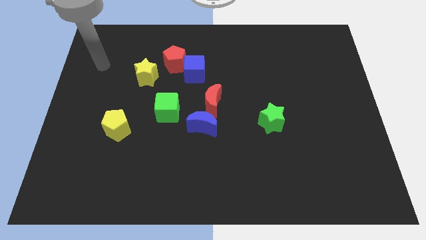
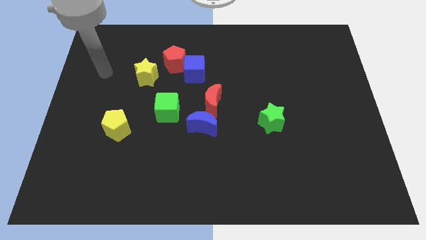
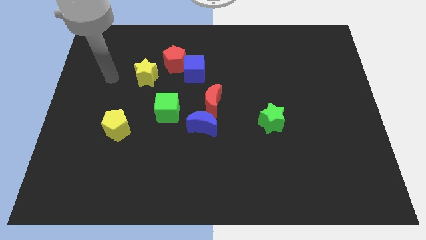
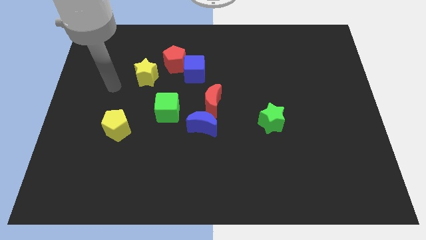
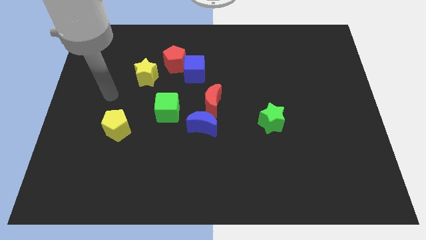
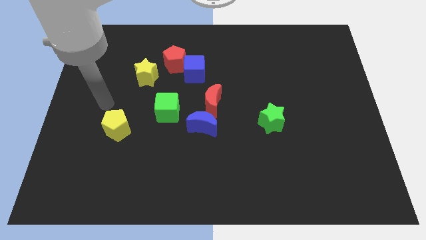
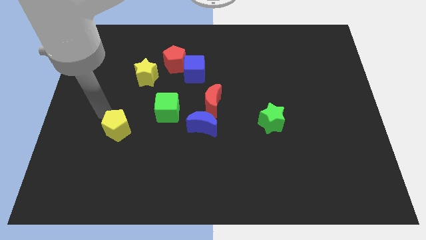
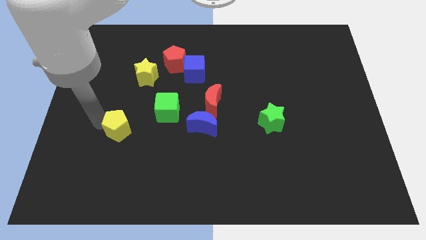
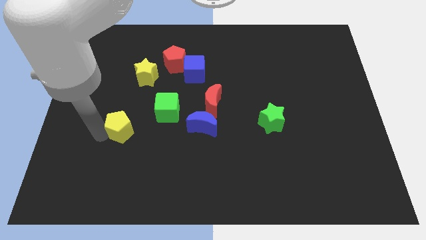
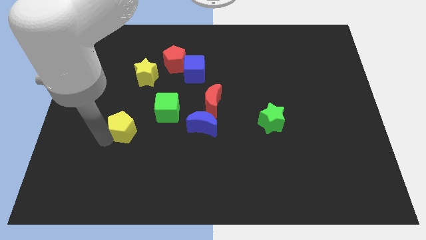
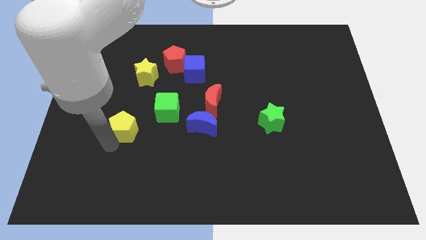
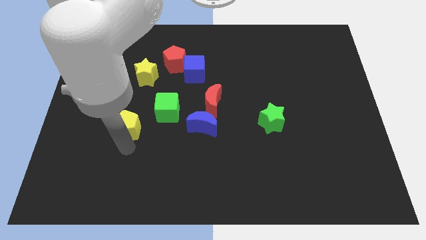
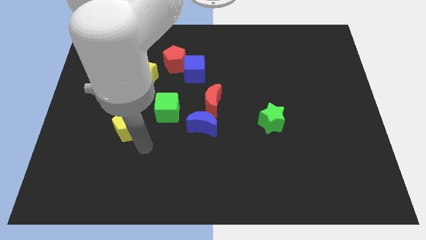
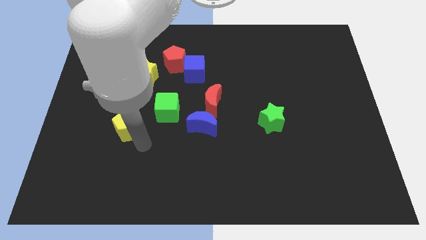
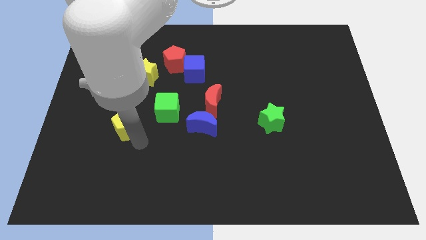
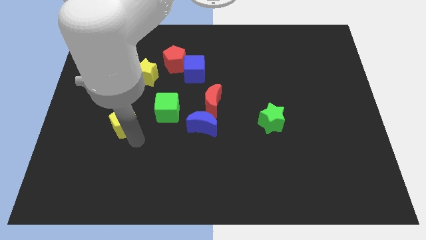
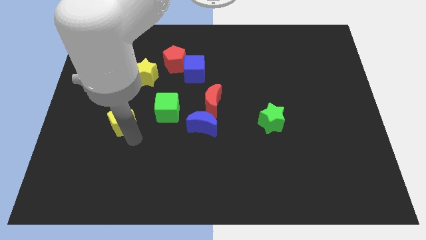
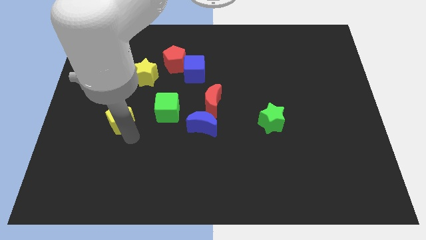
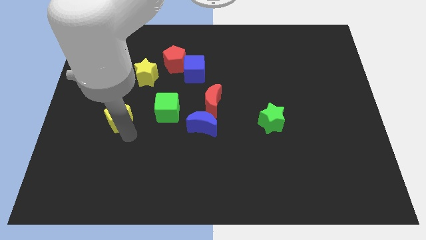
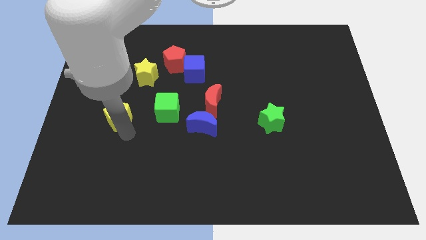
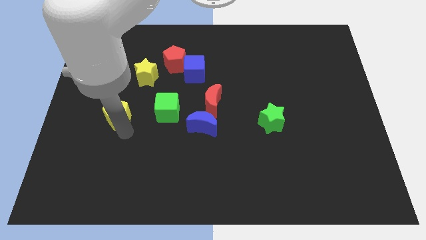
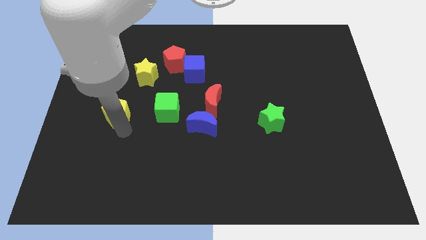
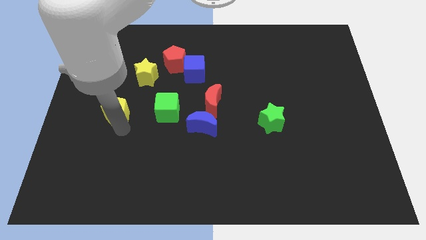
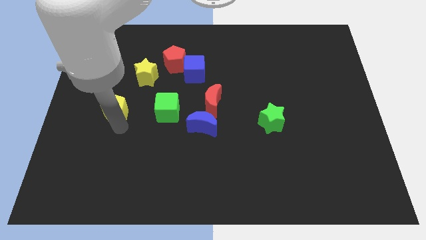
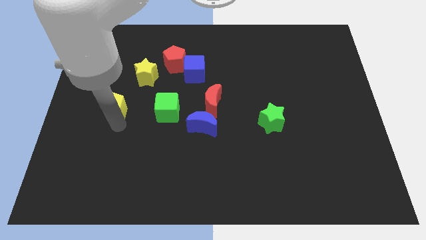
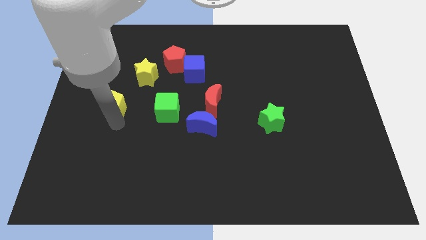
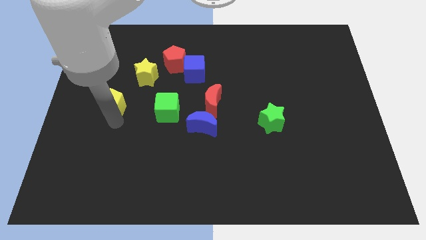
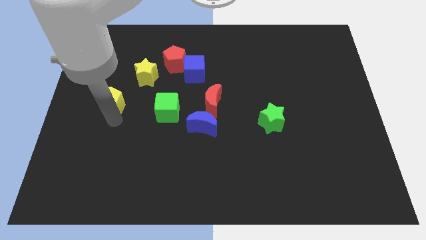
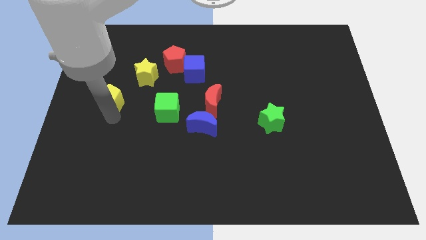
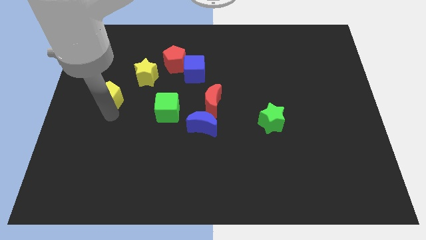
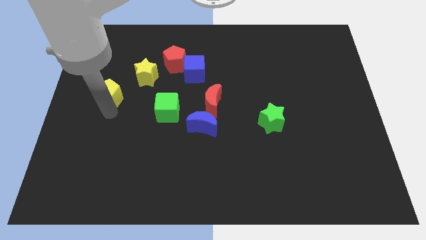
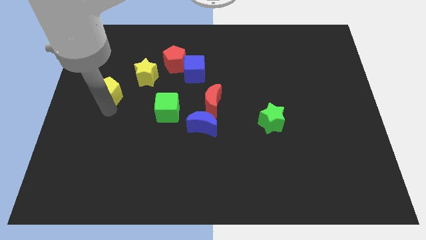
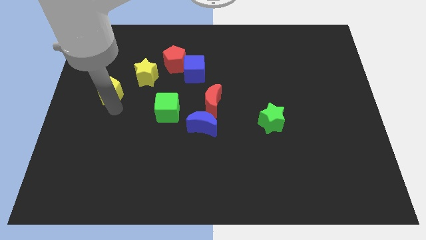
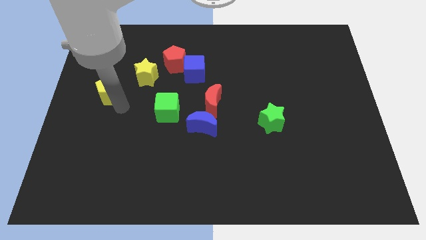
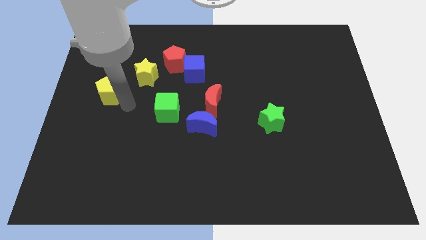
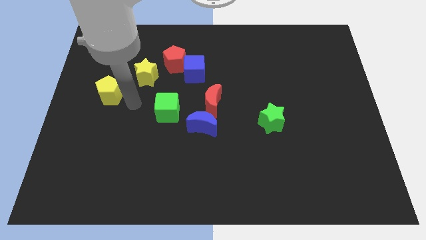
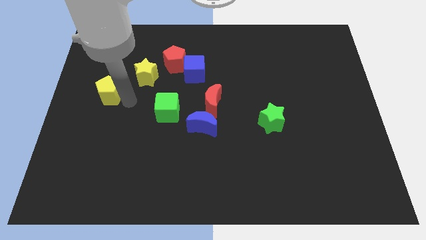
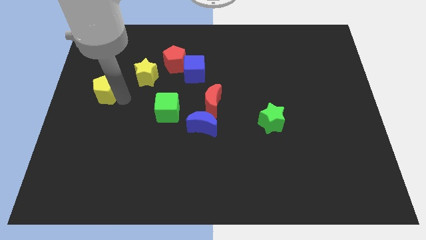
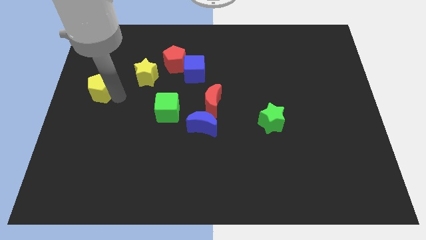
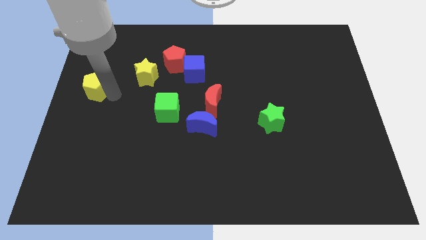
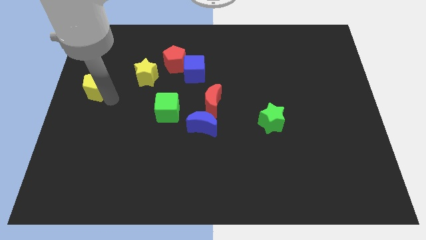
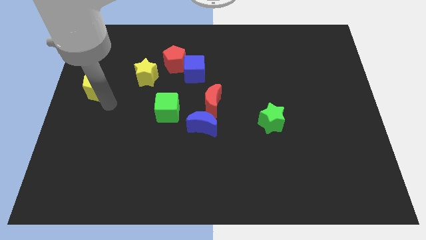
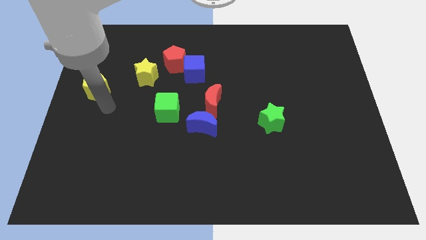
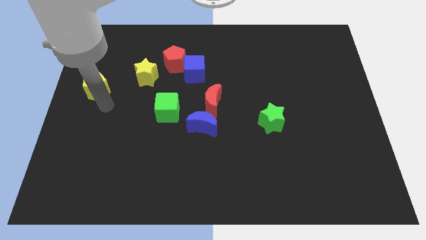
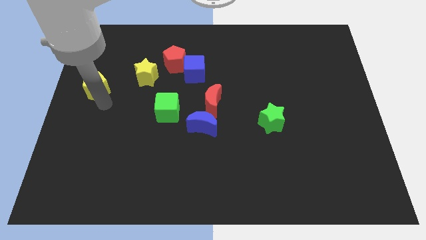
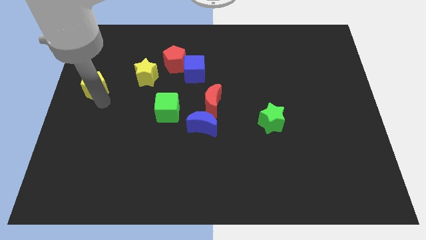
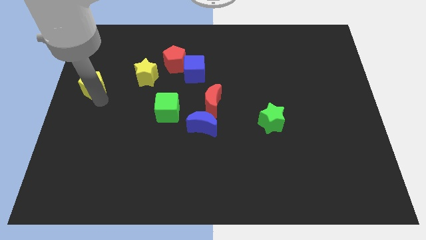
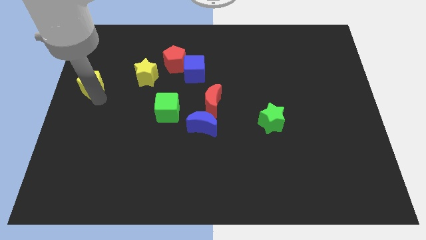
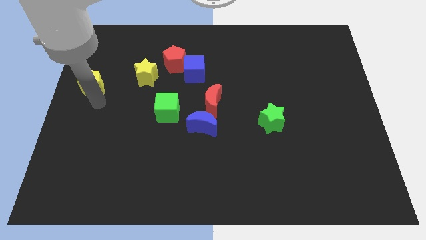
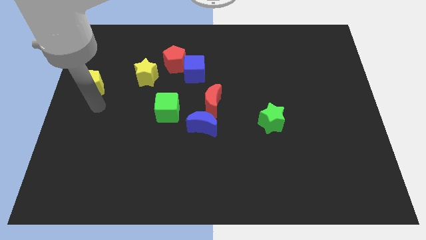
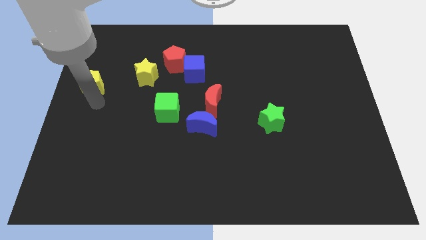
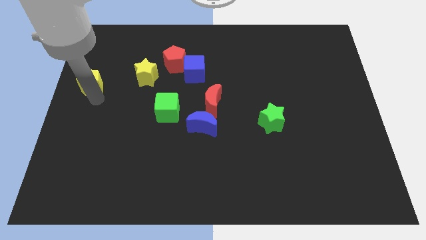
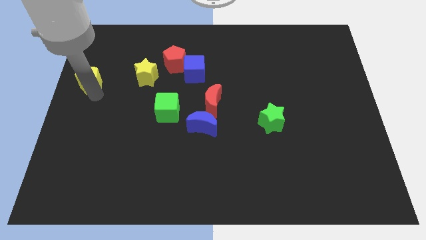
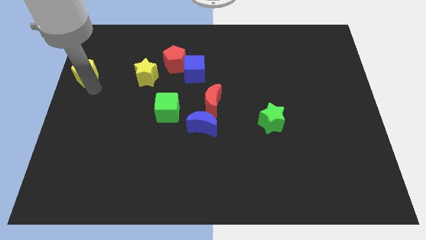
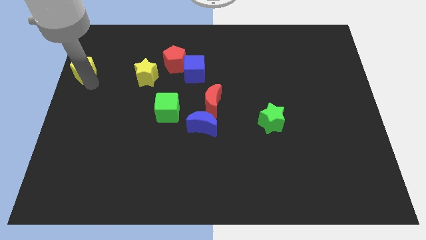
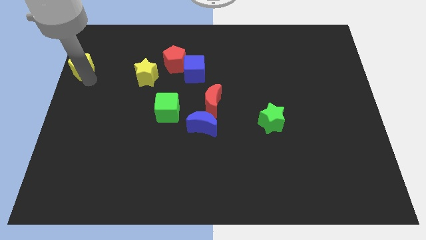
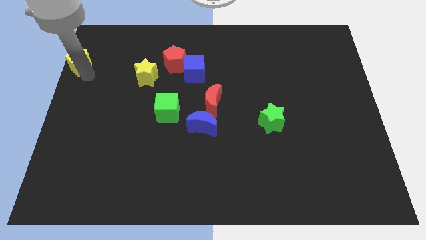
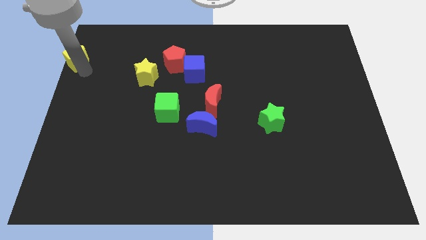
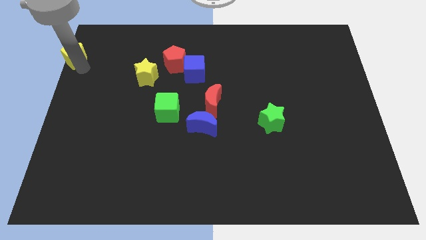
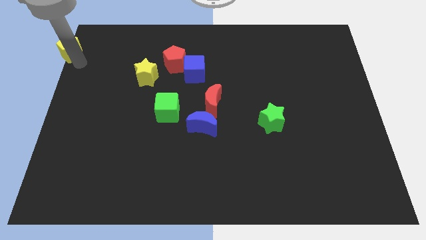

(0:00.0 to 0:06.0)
put the yellow pentagon to the top left
